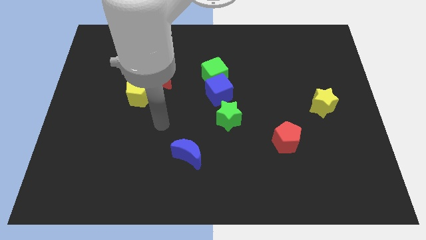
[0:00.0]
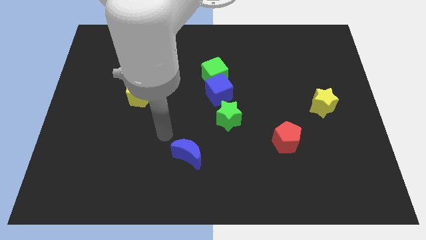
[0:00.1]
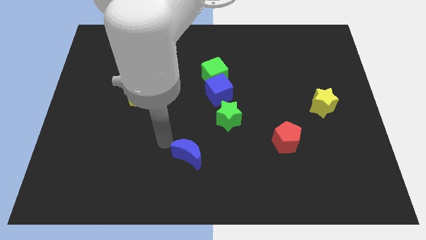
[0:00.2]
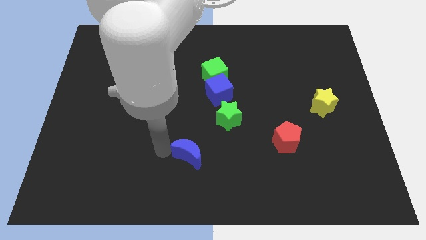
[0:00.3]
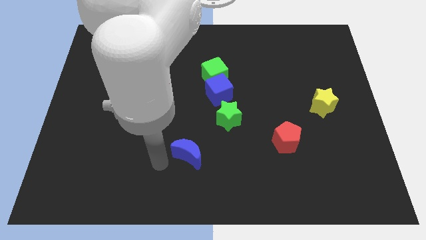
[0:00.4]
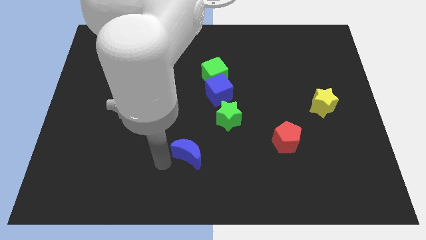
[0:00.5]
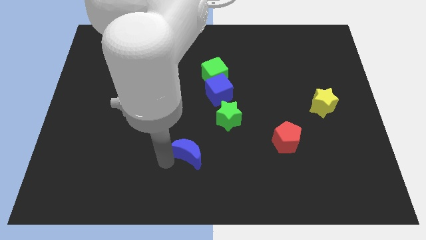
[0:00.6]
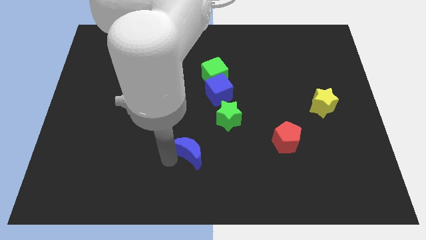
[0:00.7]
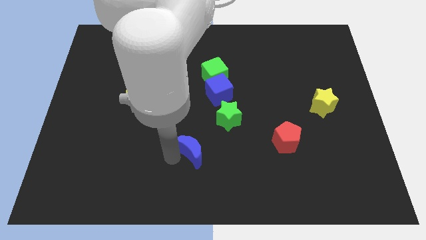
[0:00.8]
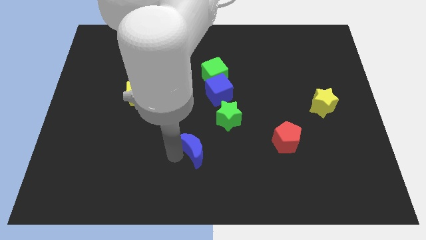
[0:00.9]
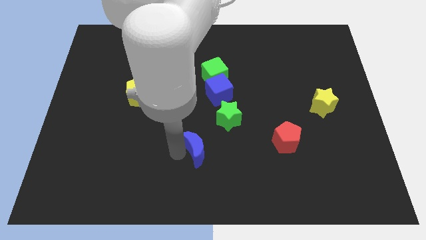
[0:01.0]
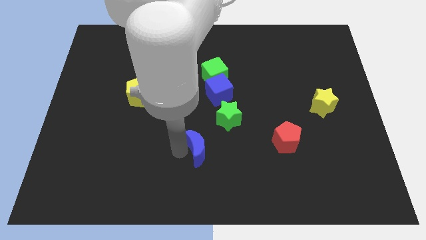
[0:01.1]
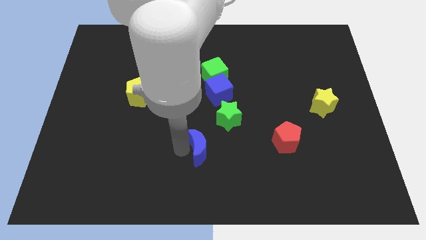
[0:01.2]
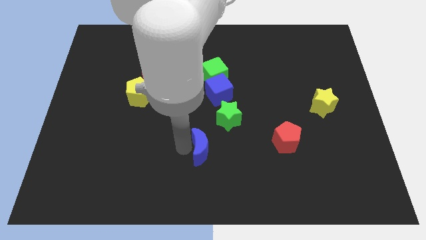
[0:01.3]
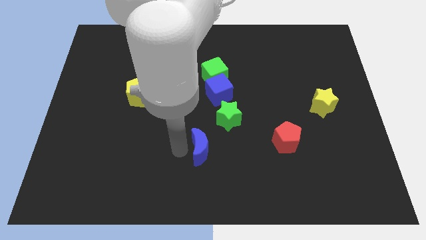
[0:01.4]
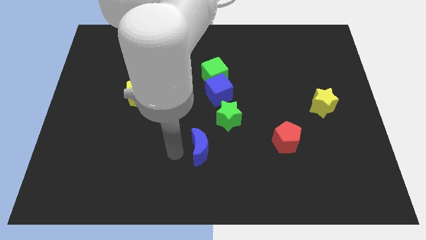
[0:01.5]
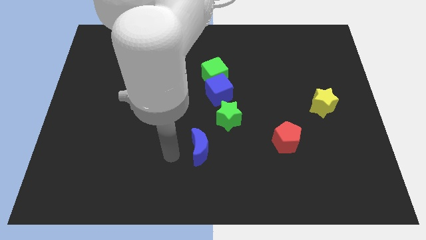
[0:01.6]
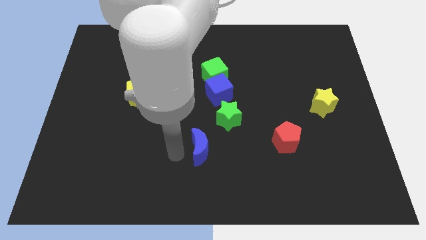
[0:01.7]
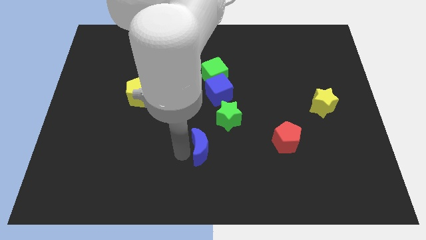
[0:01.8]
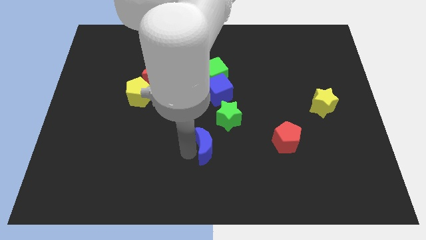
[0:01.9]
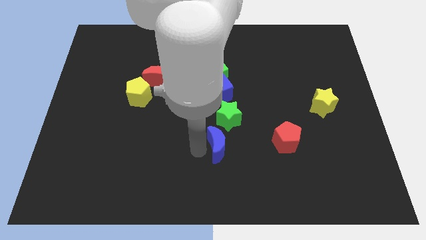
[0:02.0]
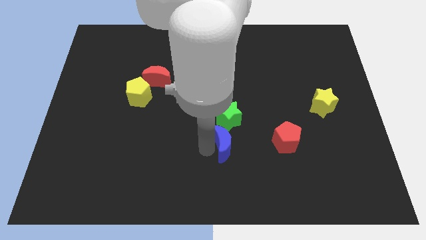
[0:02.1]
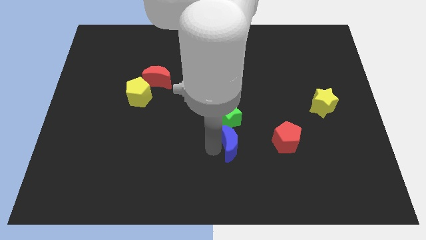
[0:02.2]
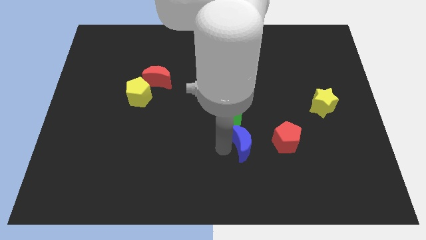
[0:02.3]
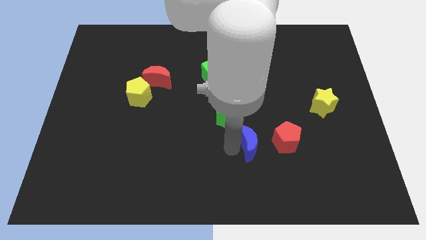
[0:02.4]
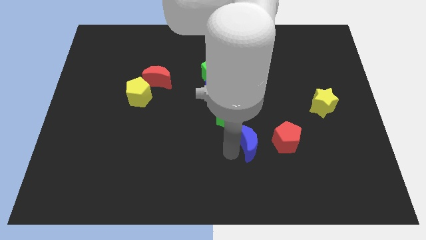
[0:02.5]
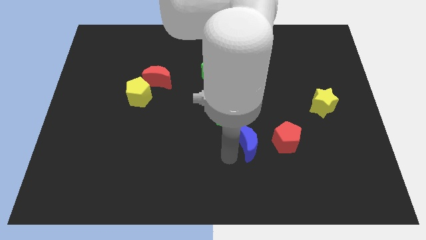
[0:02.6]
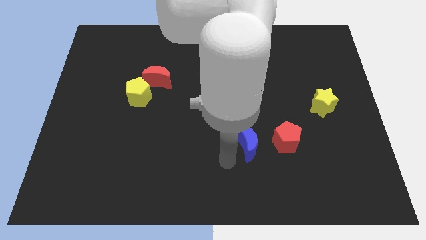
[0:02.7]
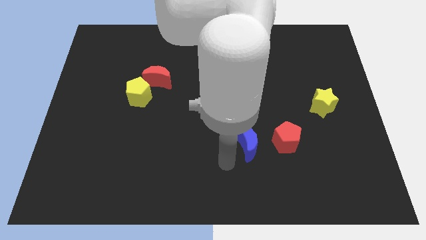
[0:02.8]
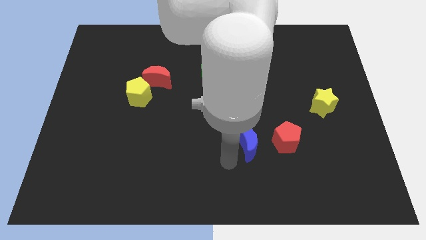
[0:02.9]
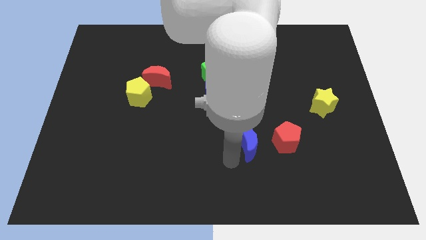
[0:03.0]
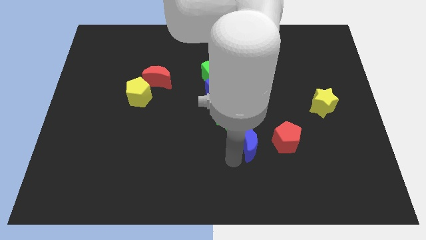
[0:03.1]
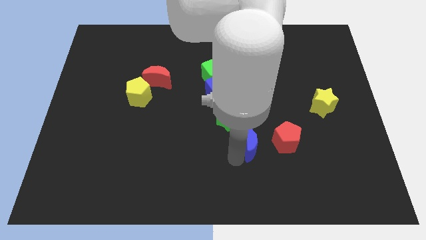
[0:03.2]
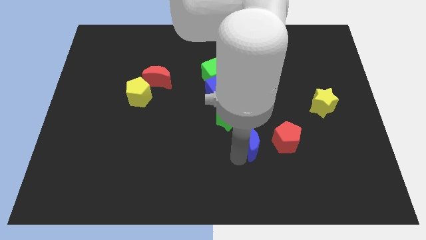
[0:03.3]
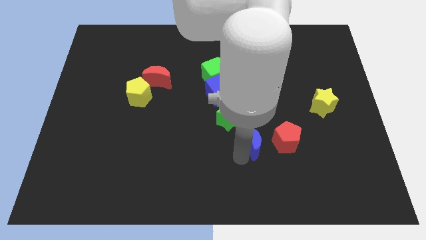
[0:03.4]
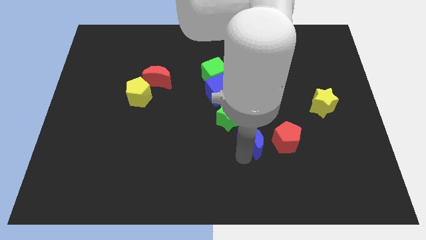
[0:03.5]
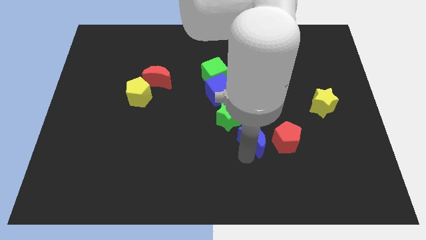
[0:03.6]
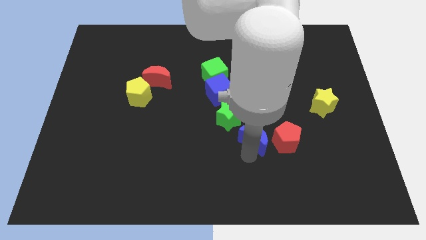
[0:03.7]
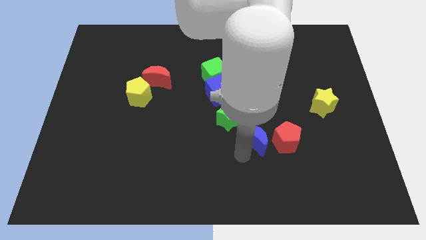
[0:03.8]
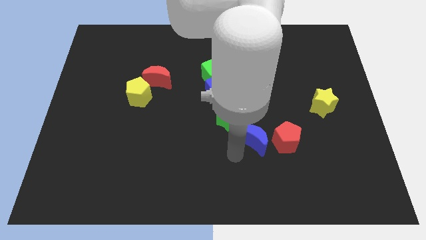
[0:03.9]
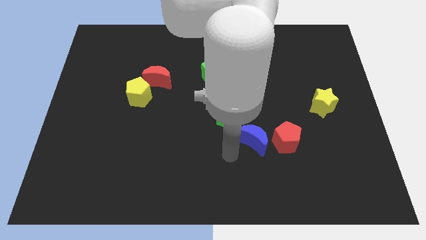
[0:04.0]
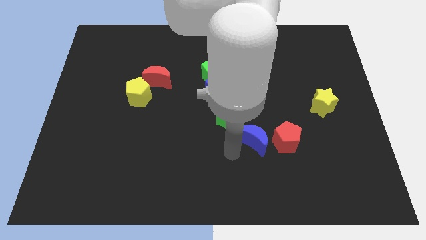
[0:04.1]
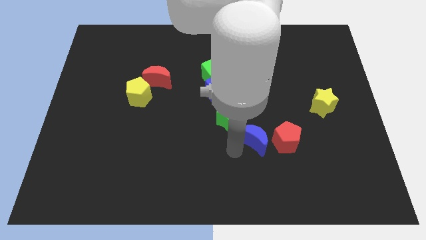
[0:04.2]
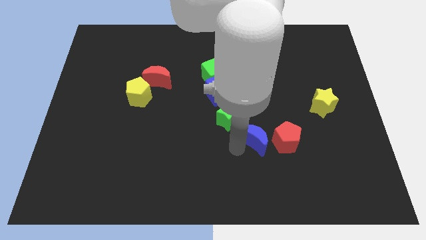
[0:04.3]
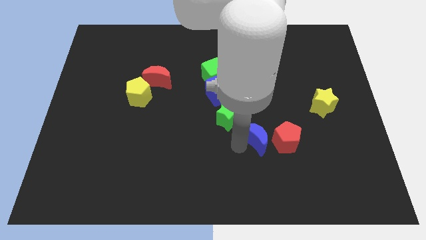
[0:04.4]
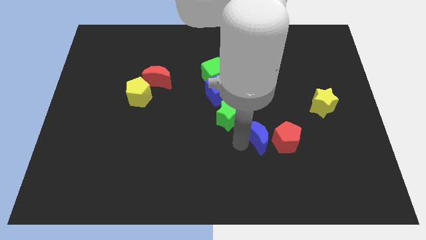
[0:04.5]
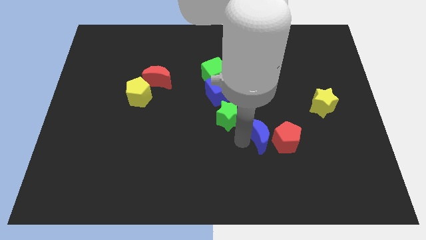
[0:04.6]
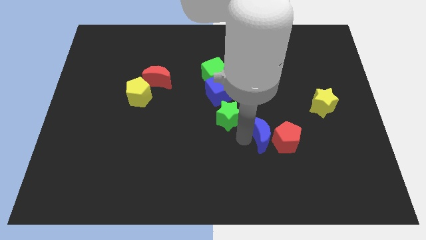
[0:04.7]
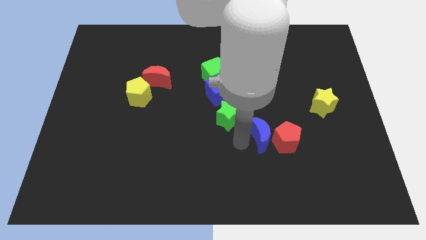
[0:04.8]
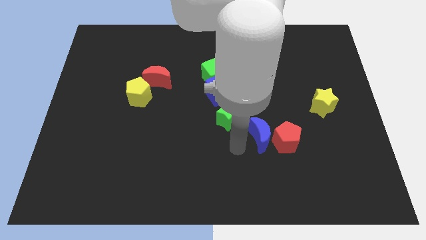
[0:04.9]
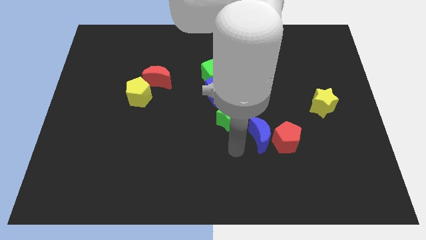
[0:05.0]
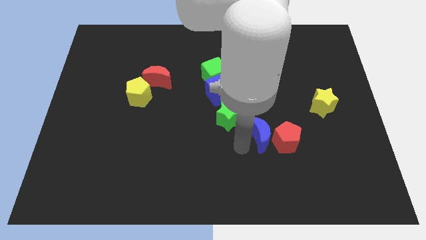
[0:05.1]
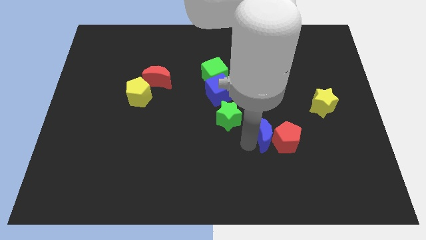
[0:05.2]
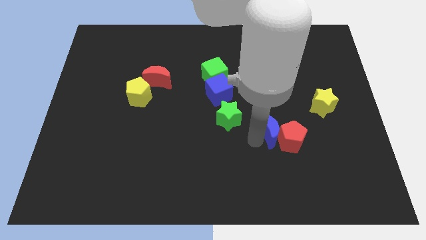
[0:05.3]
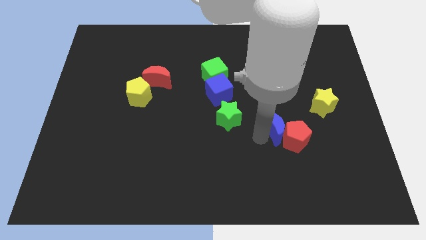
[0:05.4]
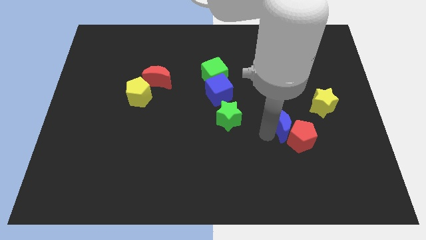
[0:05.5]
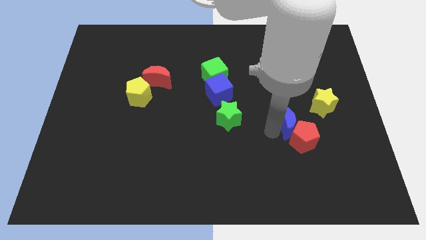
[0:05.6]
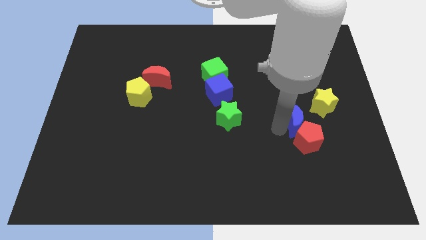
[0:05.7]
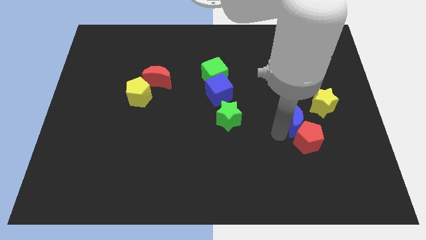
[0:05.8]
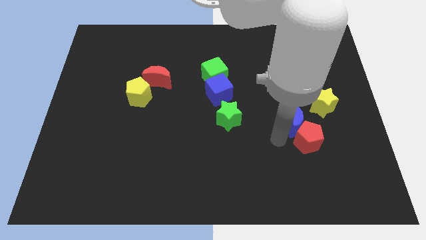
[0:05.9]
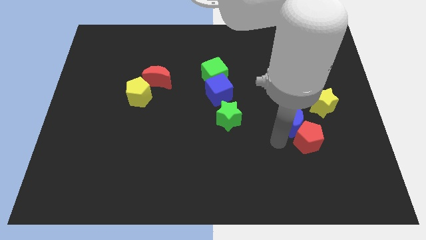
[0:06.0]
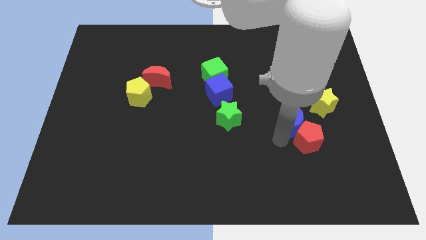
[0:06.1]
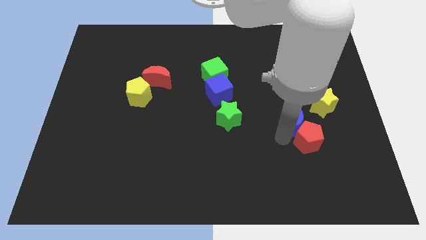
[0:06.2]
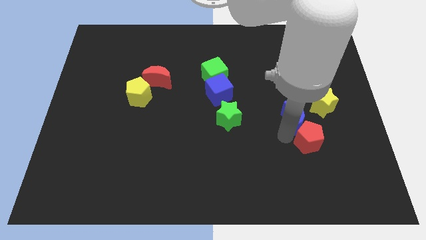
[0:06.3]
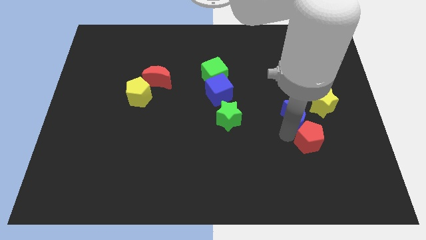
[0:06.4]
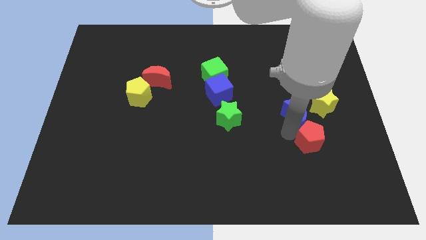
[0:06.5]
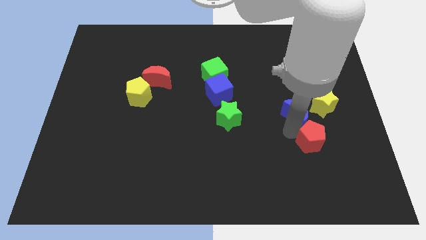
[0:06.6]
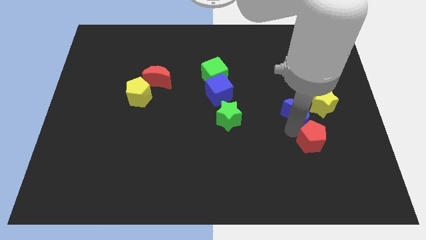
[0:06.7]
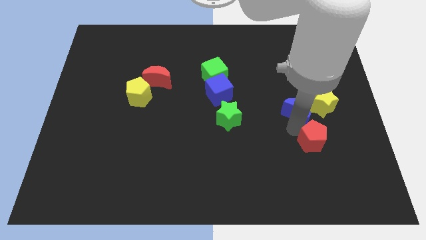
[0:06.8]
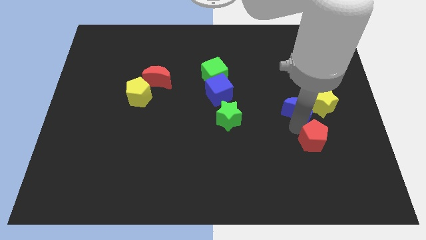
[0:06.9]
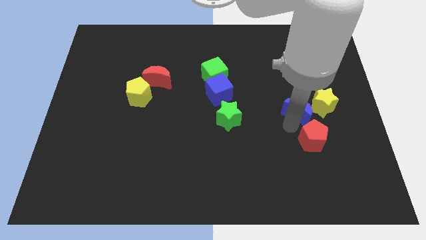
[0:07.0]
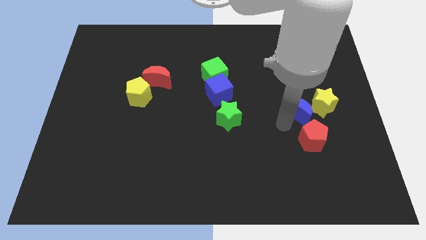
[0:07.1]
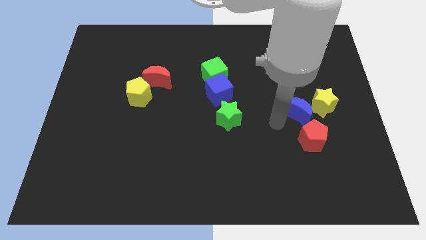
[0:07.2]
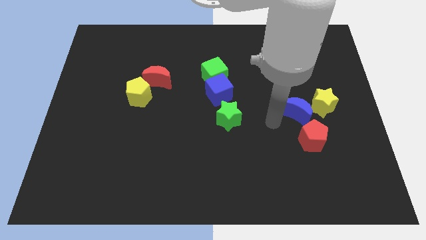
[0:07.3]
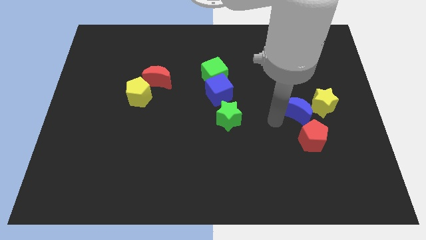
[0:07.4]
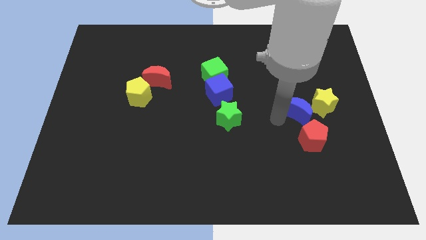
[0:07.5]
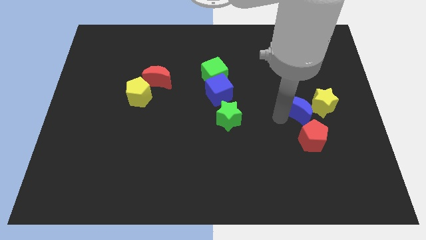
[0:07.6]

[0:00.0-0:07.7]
put the blue moon close to the yellow star

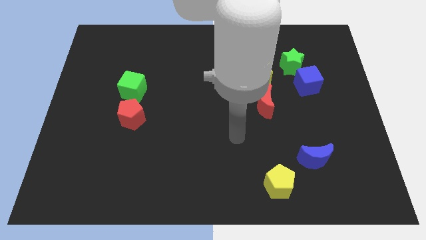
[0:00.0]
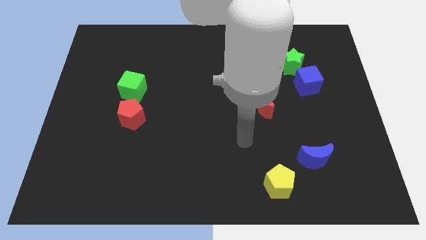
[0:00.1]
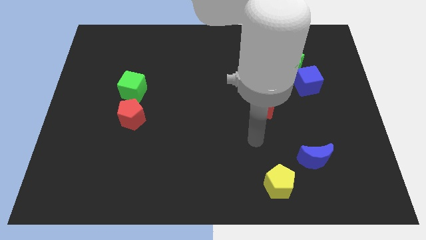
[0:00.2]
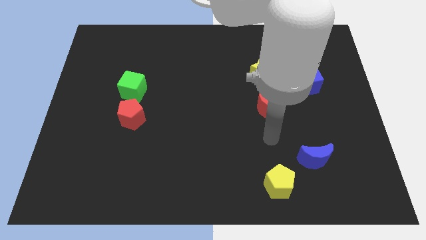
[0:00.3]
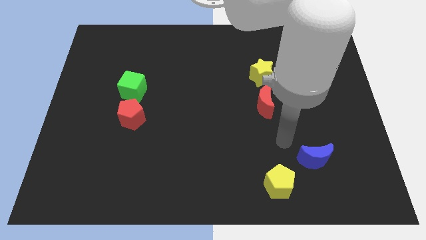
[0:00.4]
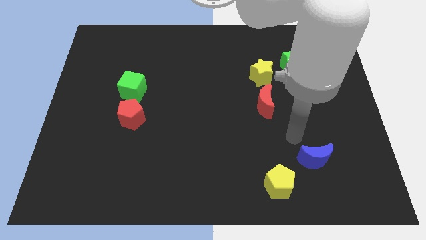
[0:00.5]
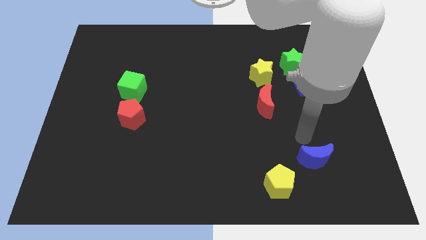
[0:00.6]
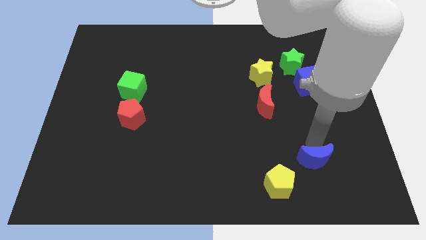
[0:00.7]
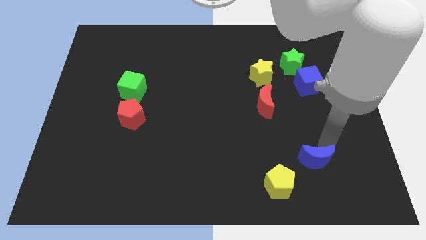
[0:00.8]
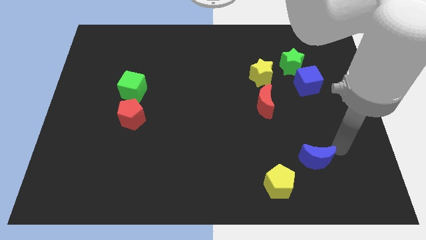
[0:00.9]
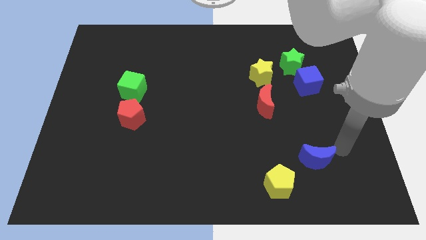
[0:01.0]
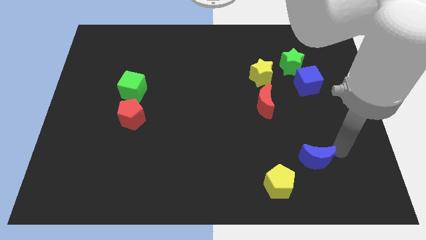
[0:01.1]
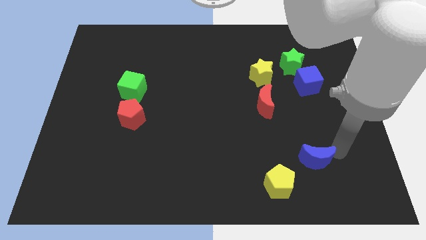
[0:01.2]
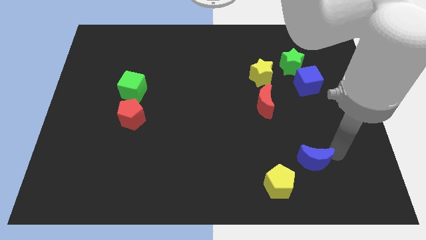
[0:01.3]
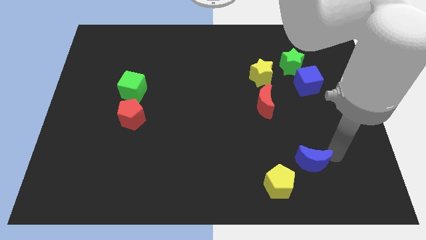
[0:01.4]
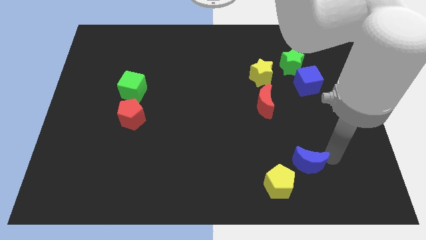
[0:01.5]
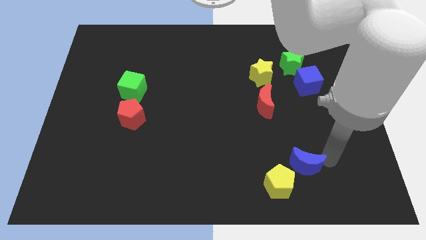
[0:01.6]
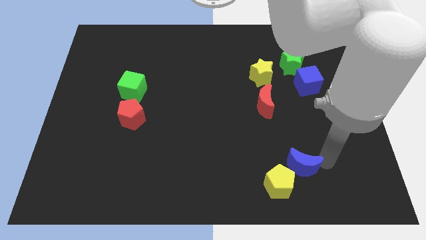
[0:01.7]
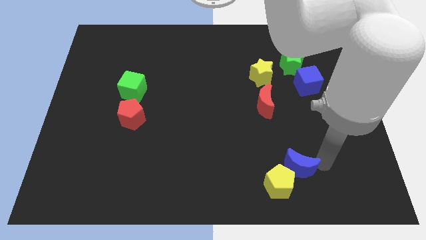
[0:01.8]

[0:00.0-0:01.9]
put the blue moon close to the yellow pentagon
